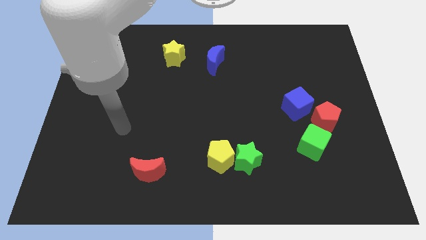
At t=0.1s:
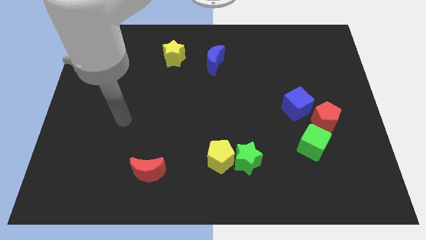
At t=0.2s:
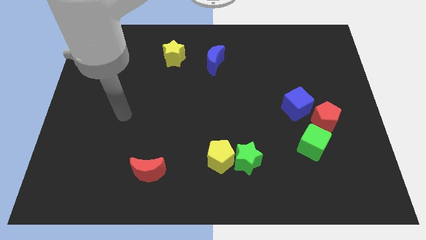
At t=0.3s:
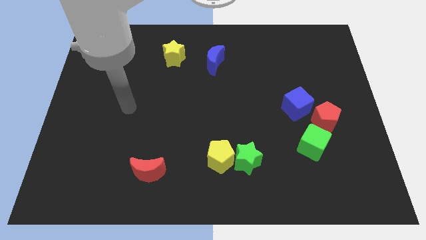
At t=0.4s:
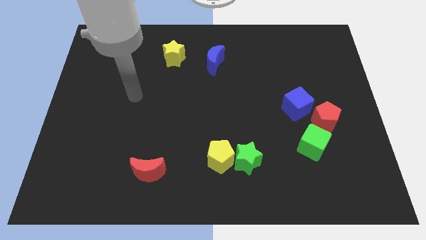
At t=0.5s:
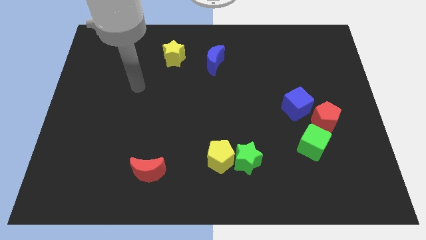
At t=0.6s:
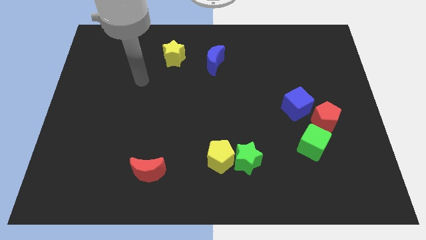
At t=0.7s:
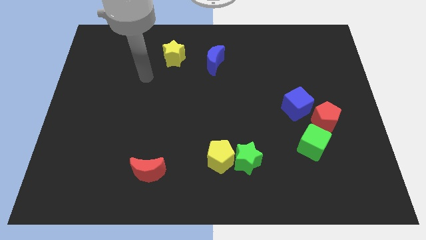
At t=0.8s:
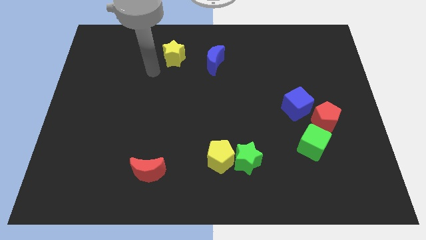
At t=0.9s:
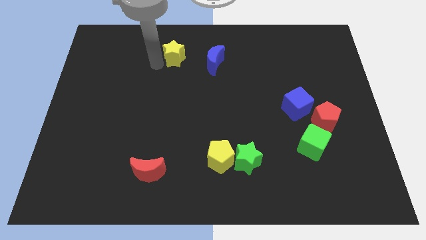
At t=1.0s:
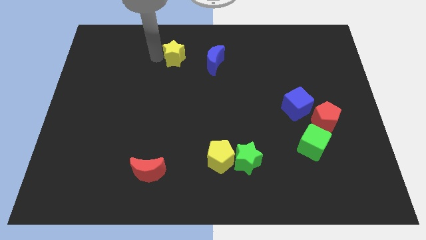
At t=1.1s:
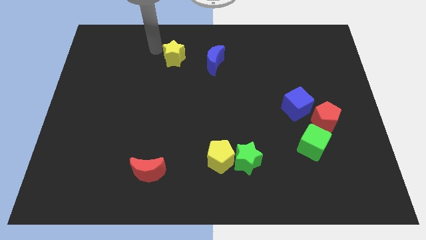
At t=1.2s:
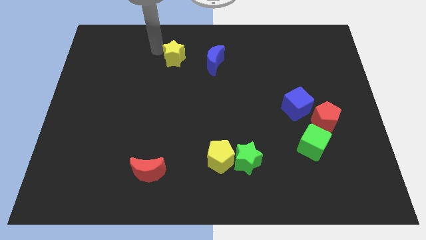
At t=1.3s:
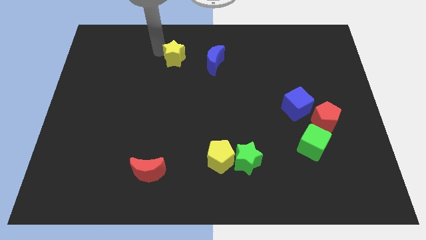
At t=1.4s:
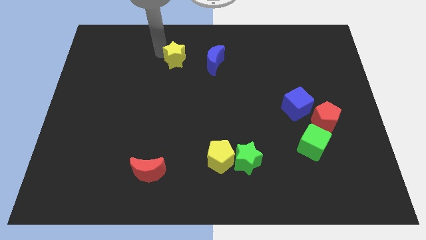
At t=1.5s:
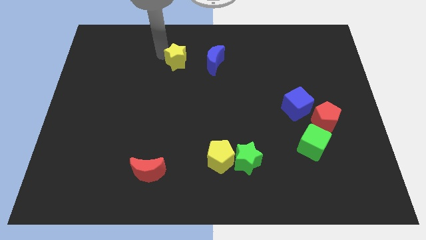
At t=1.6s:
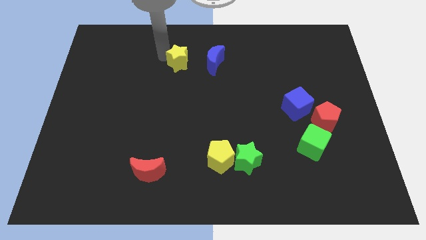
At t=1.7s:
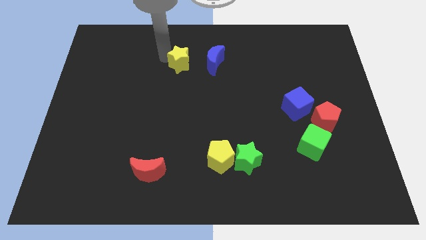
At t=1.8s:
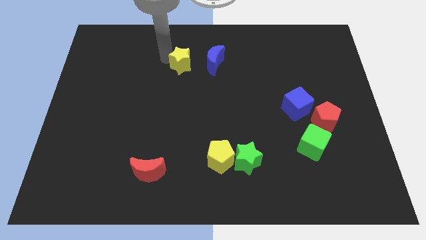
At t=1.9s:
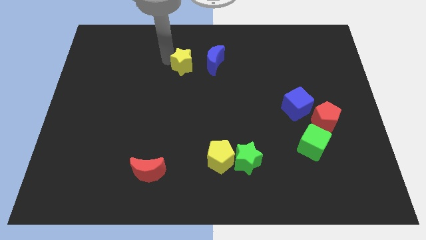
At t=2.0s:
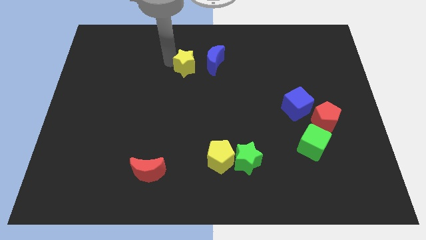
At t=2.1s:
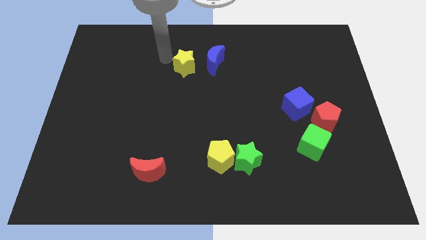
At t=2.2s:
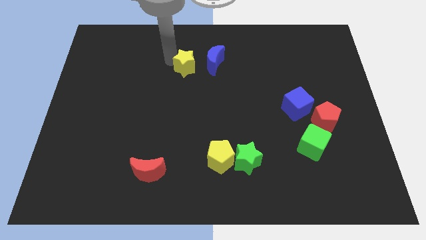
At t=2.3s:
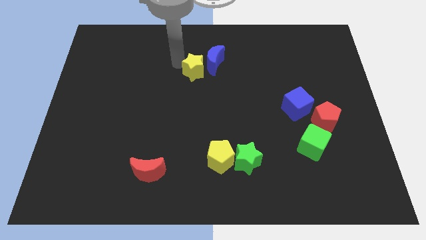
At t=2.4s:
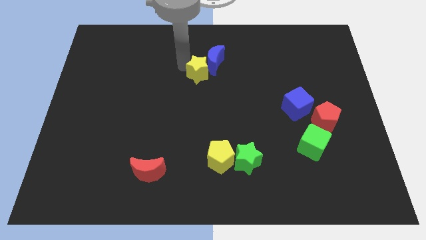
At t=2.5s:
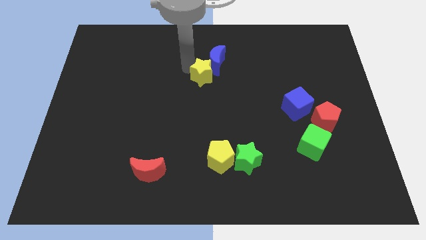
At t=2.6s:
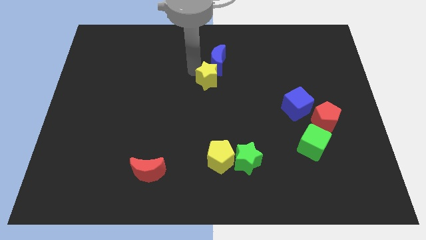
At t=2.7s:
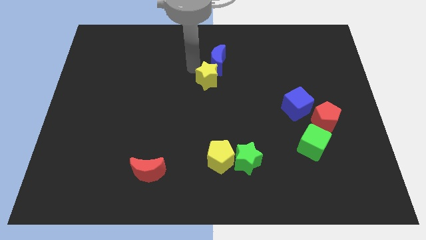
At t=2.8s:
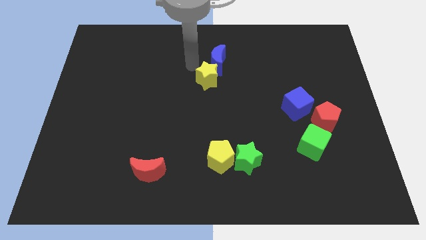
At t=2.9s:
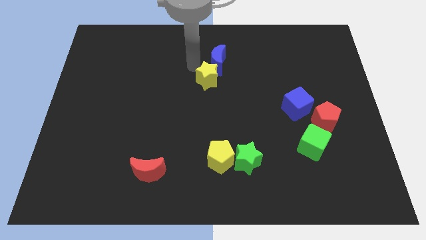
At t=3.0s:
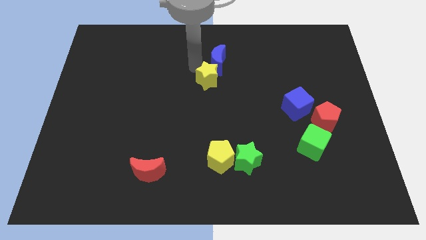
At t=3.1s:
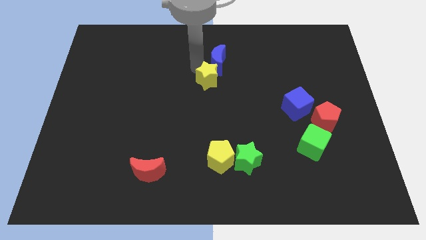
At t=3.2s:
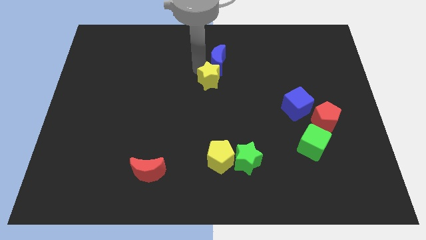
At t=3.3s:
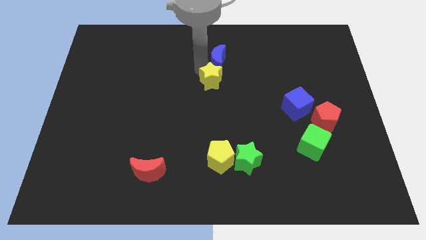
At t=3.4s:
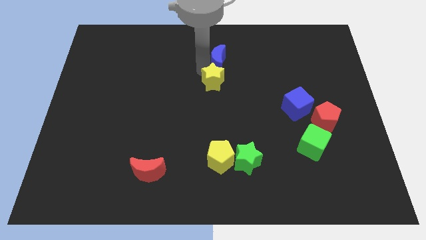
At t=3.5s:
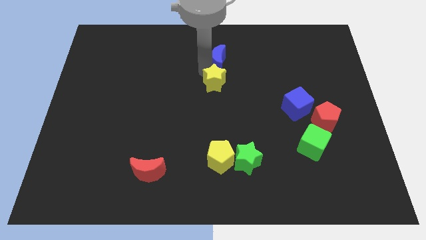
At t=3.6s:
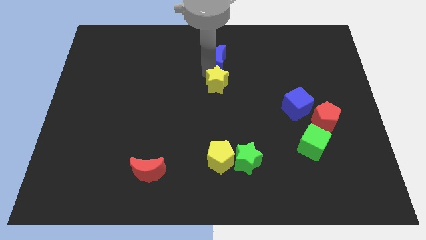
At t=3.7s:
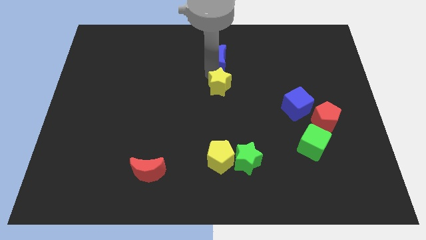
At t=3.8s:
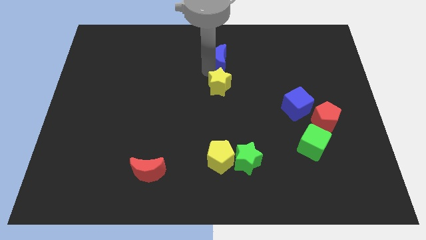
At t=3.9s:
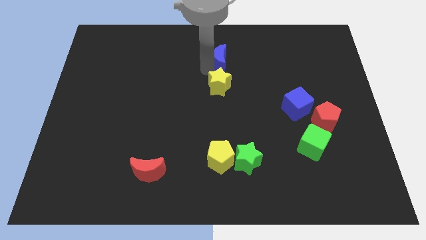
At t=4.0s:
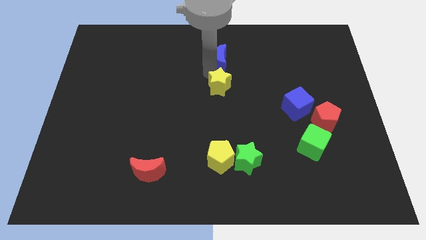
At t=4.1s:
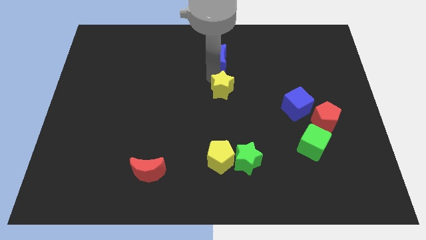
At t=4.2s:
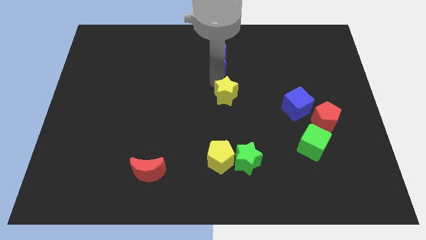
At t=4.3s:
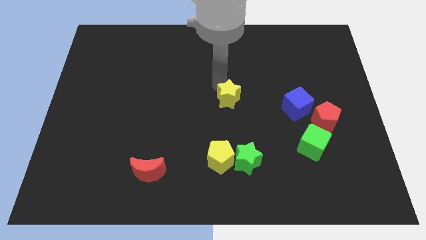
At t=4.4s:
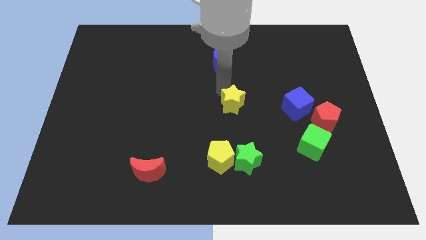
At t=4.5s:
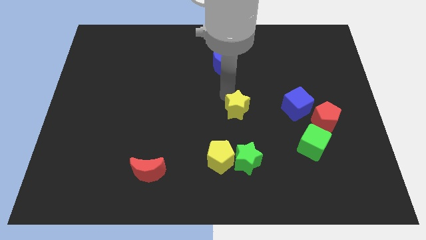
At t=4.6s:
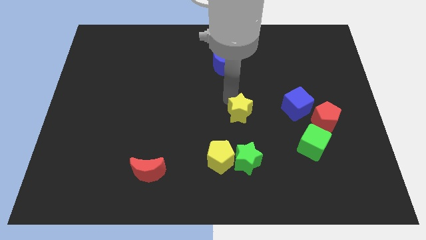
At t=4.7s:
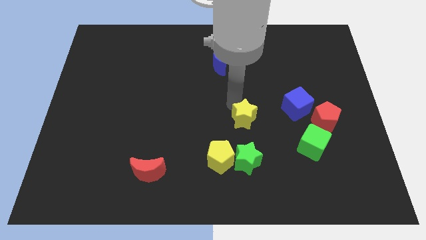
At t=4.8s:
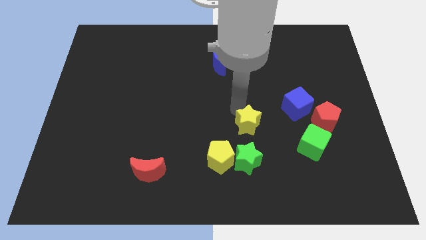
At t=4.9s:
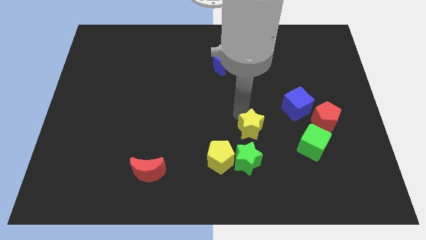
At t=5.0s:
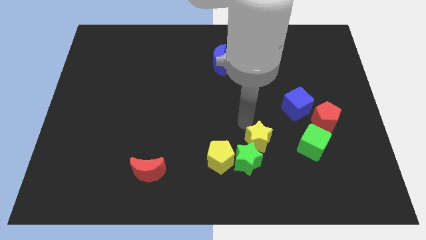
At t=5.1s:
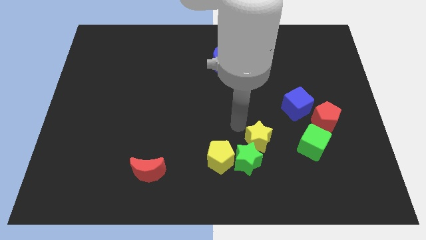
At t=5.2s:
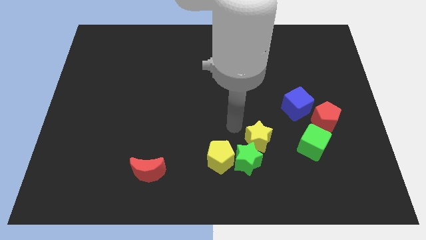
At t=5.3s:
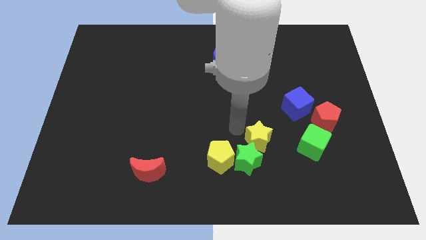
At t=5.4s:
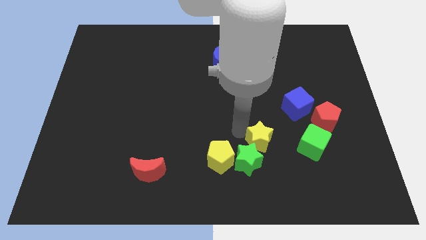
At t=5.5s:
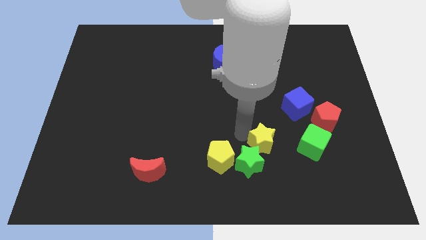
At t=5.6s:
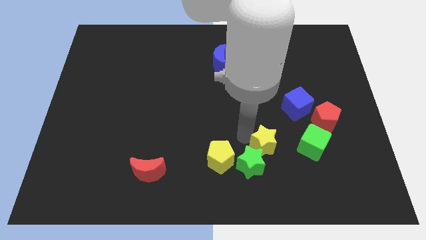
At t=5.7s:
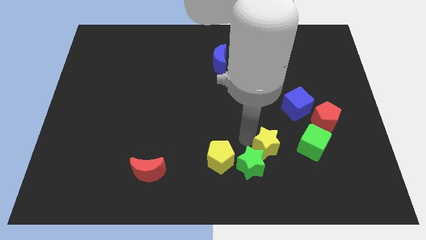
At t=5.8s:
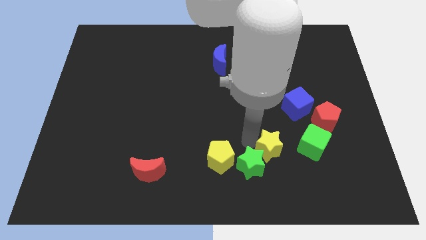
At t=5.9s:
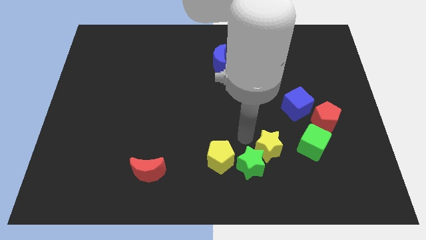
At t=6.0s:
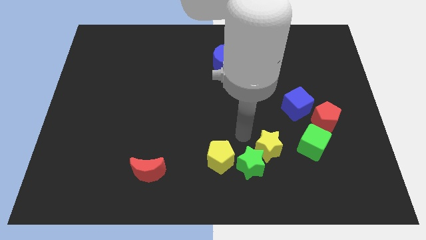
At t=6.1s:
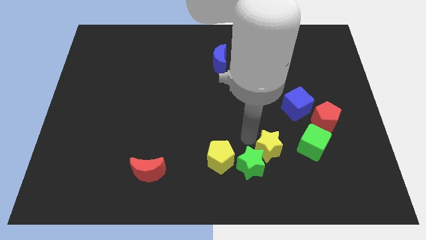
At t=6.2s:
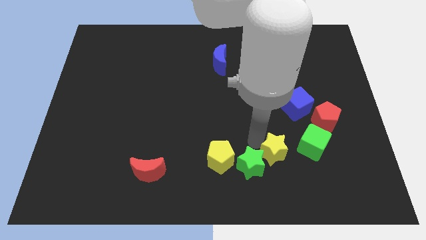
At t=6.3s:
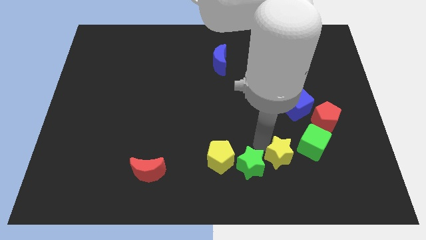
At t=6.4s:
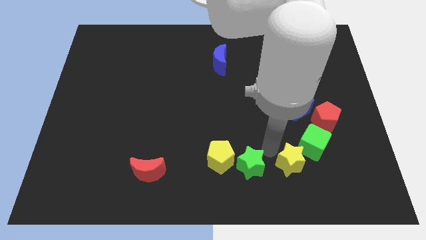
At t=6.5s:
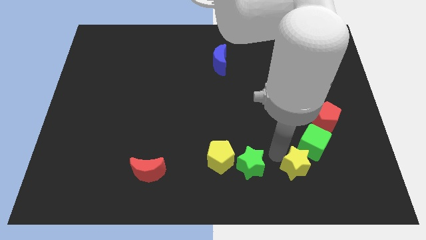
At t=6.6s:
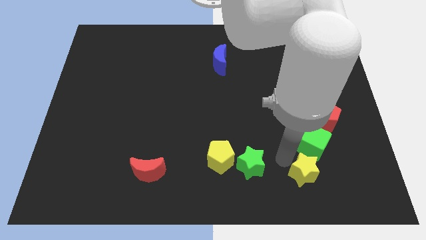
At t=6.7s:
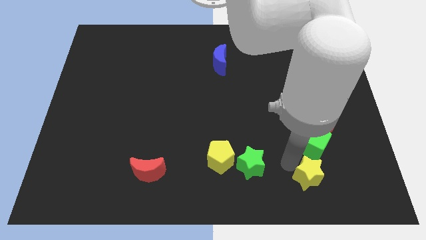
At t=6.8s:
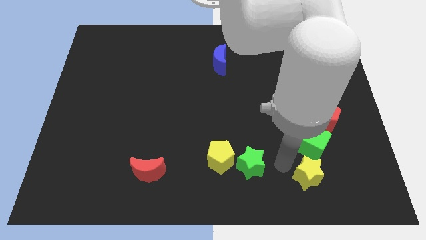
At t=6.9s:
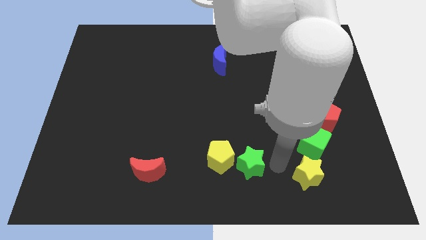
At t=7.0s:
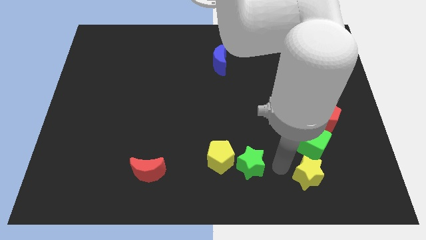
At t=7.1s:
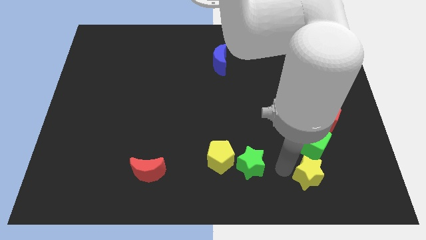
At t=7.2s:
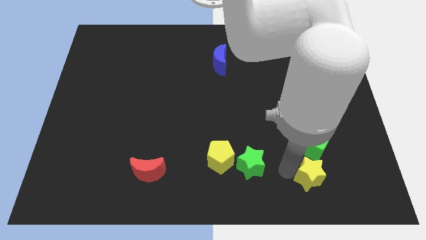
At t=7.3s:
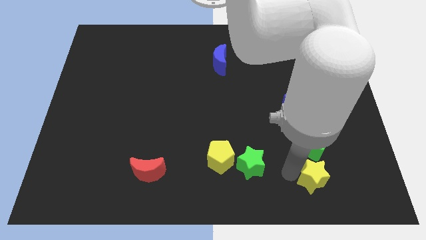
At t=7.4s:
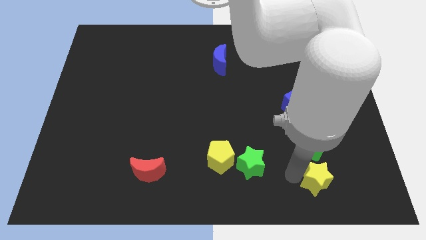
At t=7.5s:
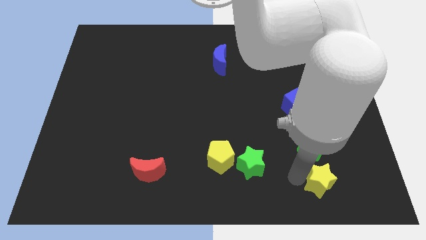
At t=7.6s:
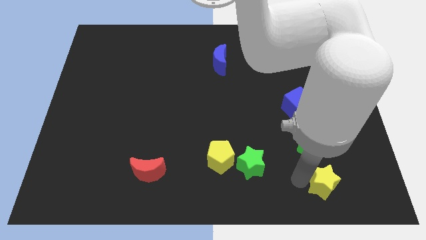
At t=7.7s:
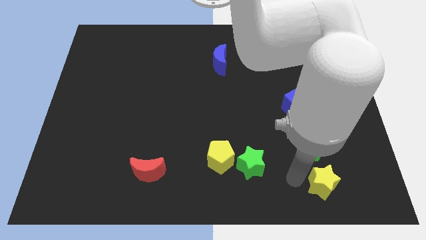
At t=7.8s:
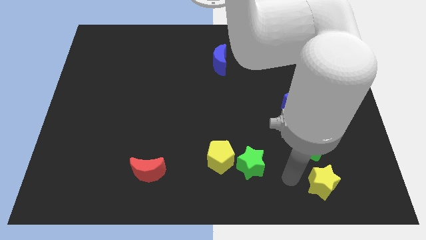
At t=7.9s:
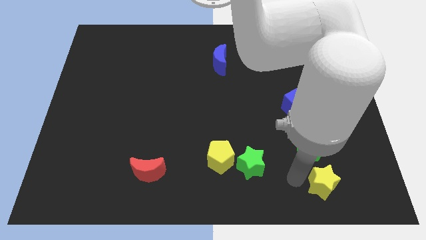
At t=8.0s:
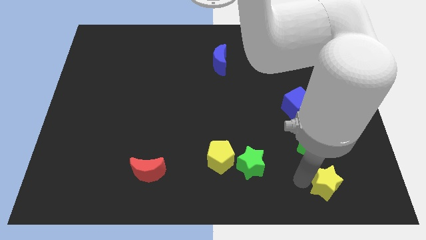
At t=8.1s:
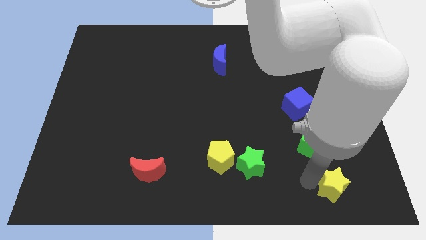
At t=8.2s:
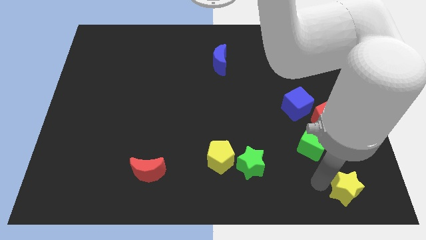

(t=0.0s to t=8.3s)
put the yellow star to the bottom right corner
